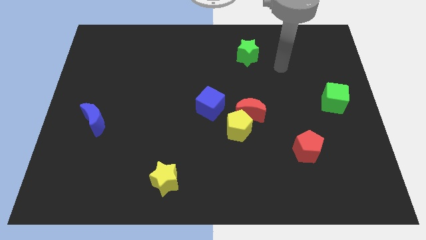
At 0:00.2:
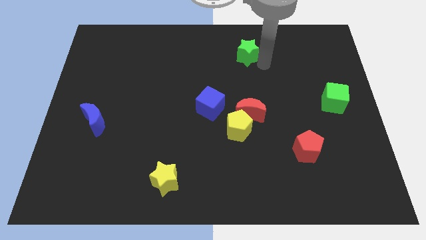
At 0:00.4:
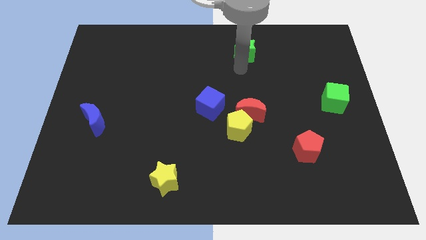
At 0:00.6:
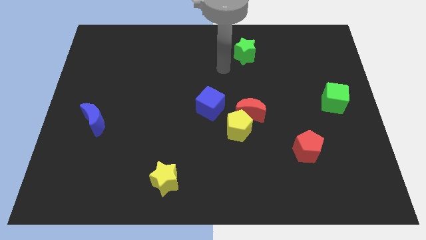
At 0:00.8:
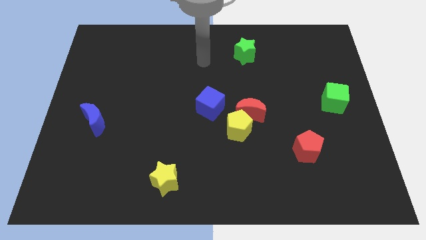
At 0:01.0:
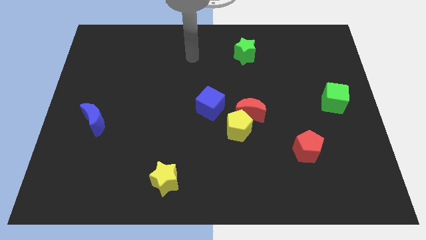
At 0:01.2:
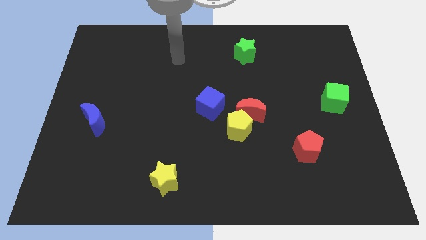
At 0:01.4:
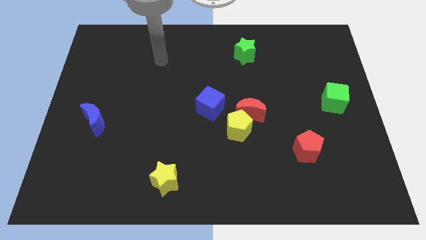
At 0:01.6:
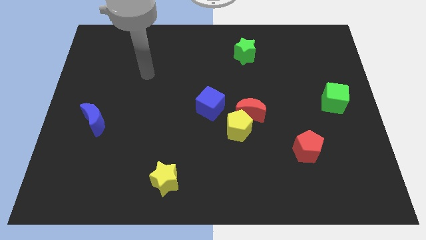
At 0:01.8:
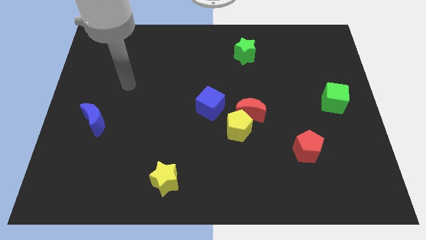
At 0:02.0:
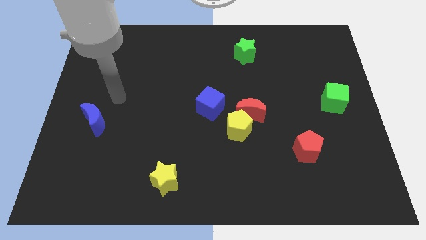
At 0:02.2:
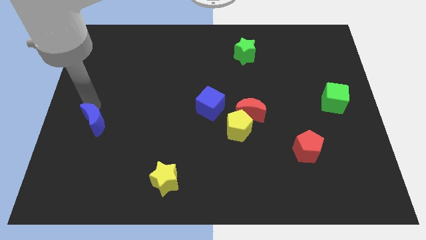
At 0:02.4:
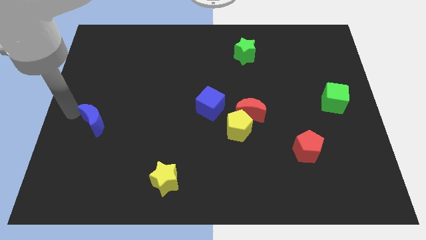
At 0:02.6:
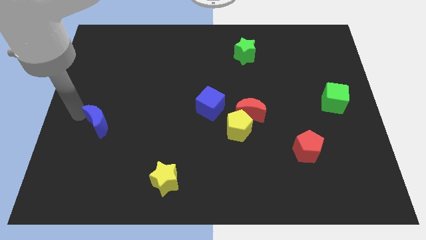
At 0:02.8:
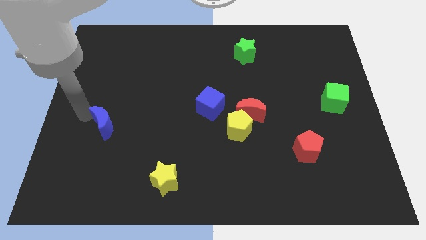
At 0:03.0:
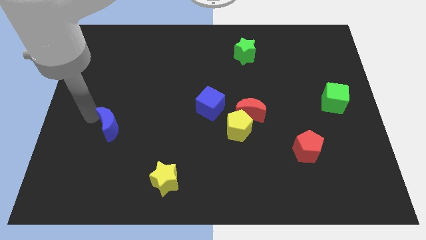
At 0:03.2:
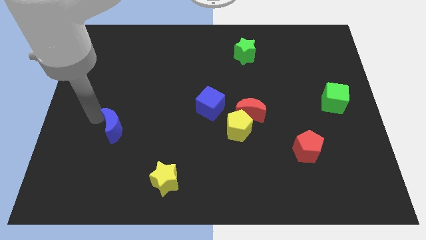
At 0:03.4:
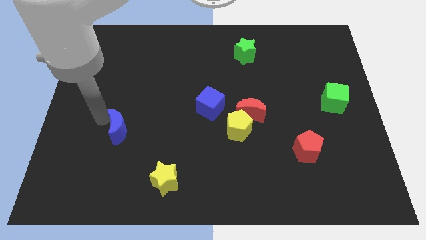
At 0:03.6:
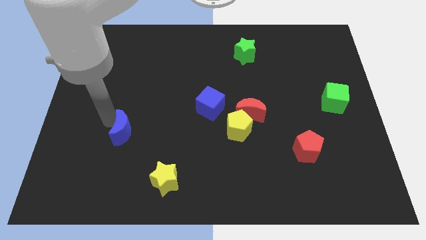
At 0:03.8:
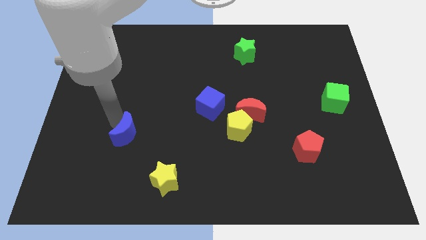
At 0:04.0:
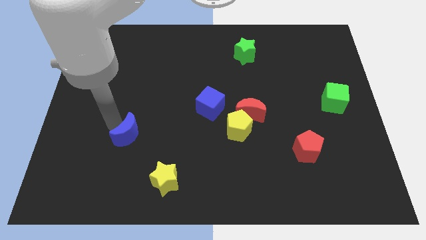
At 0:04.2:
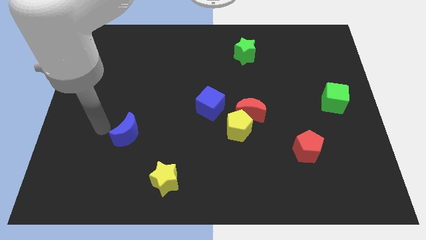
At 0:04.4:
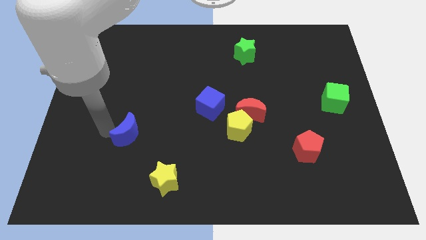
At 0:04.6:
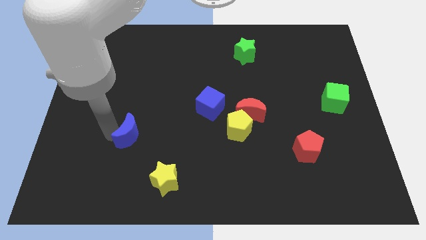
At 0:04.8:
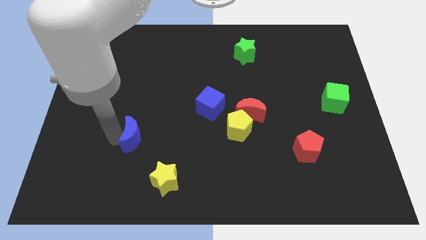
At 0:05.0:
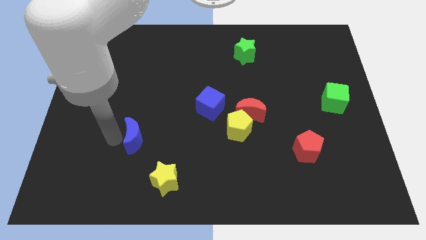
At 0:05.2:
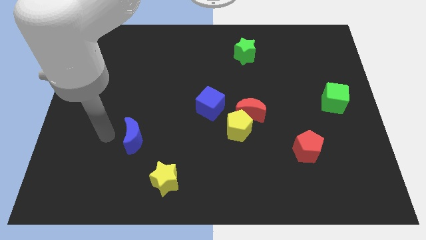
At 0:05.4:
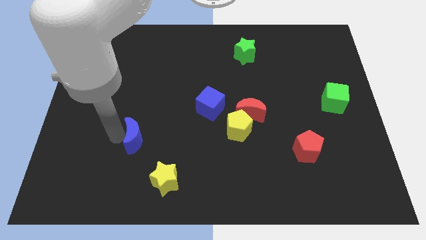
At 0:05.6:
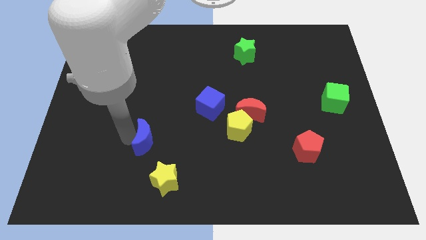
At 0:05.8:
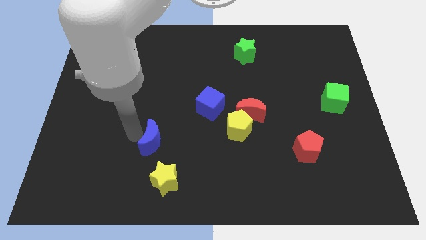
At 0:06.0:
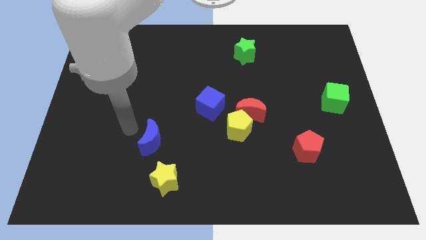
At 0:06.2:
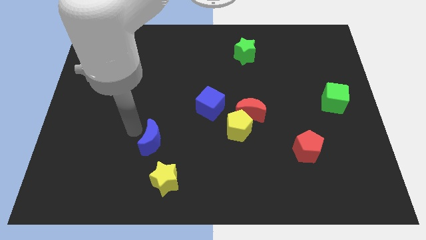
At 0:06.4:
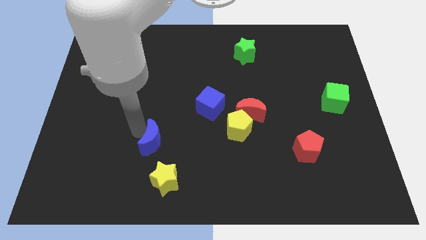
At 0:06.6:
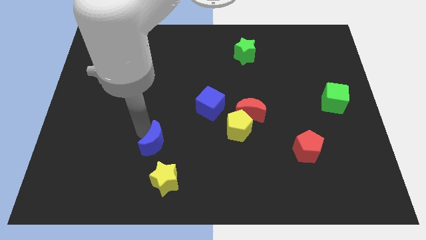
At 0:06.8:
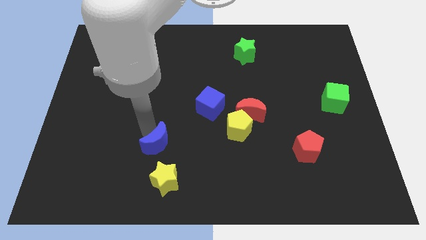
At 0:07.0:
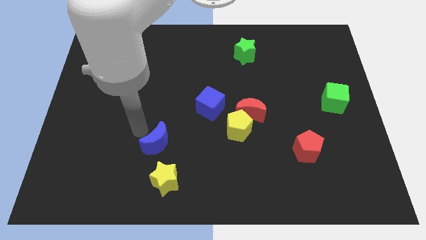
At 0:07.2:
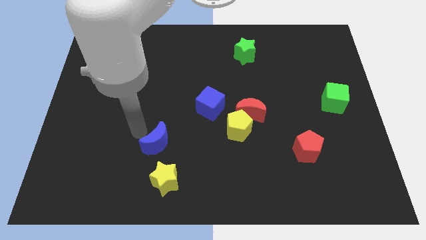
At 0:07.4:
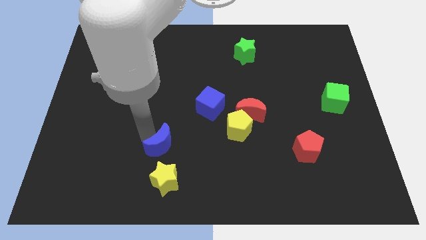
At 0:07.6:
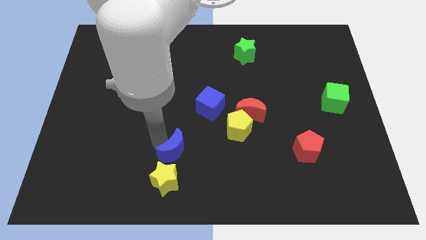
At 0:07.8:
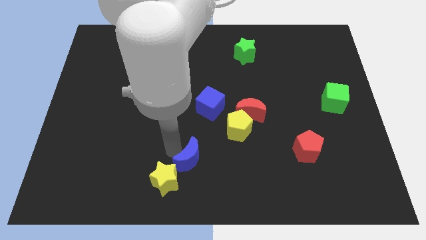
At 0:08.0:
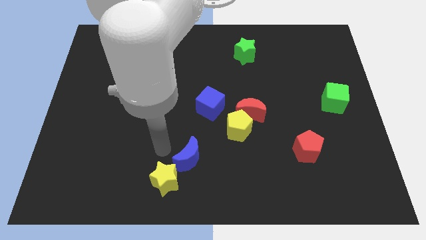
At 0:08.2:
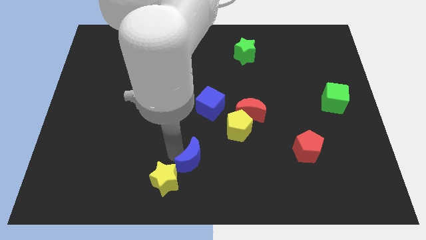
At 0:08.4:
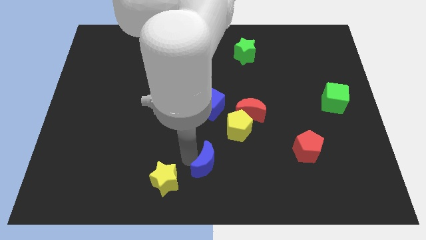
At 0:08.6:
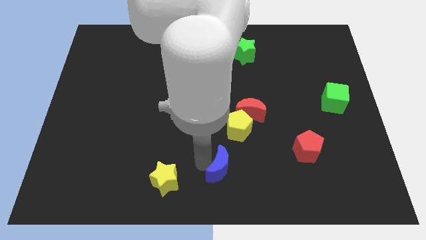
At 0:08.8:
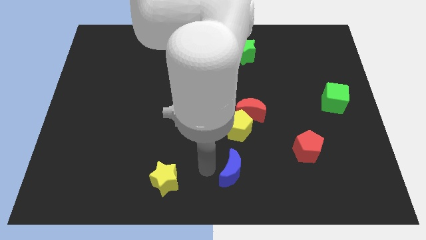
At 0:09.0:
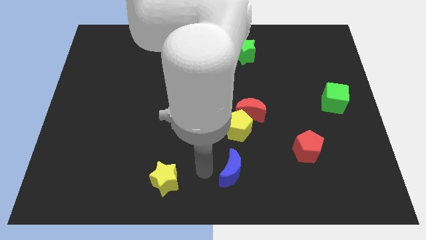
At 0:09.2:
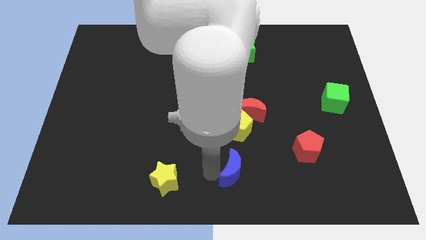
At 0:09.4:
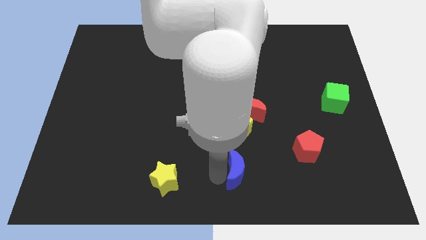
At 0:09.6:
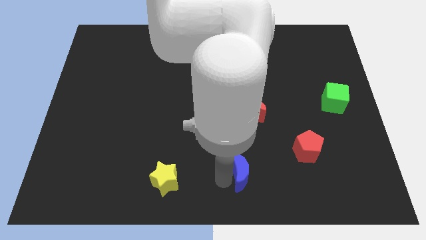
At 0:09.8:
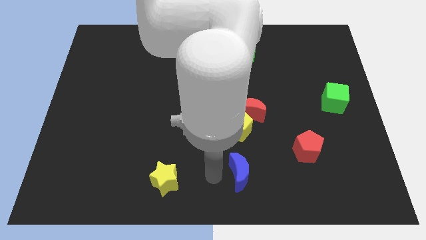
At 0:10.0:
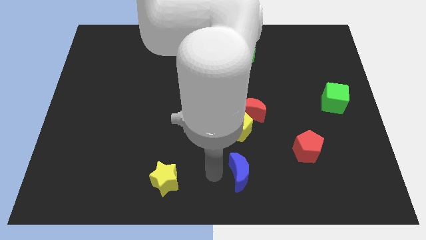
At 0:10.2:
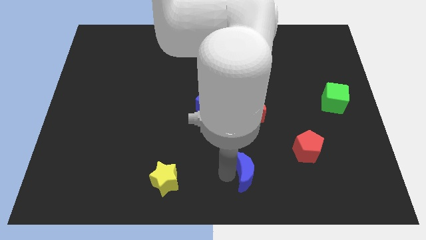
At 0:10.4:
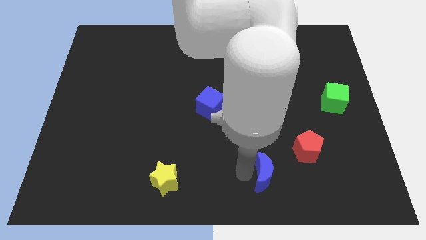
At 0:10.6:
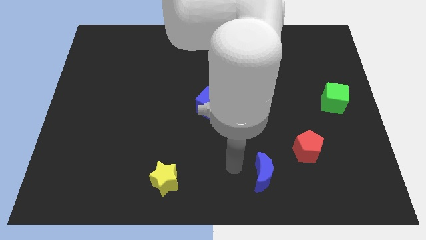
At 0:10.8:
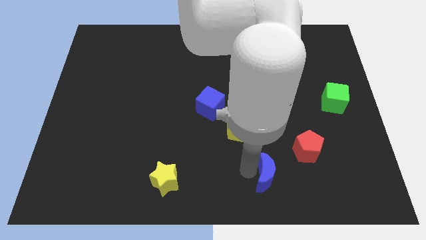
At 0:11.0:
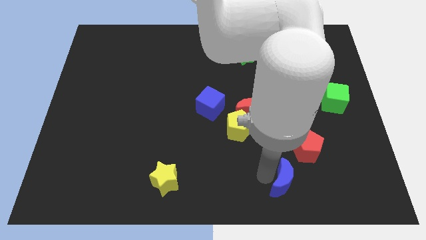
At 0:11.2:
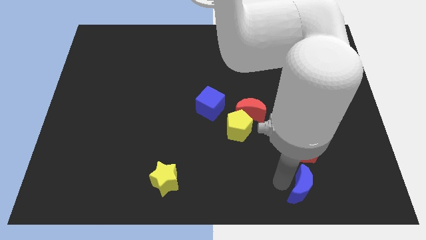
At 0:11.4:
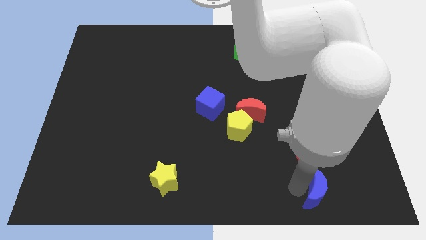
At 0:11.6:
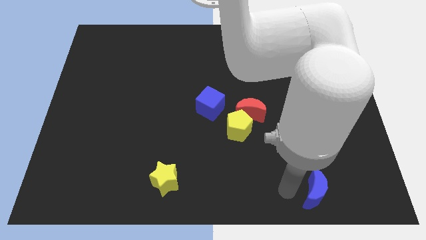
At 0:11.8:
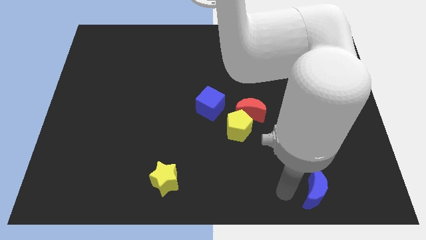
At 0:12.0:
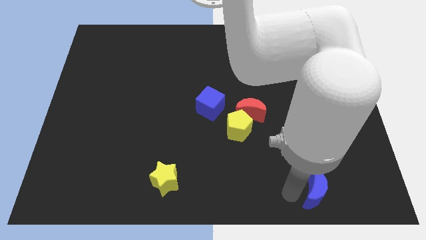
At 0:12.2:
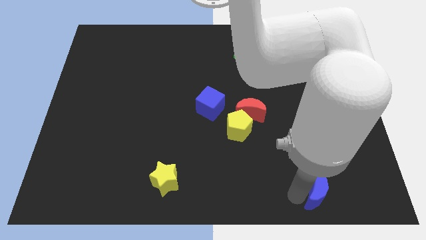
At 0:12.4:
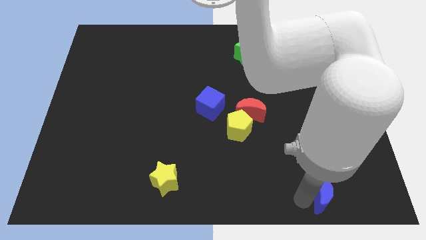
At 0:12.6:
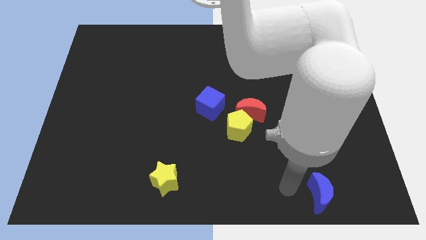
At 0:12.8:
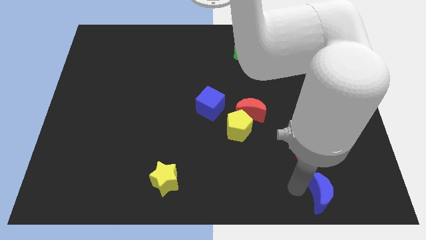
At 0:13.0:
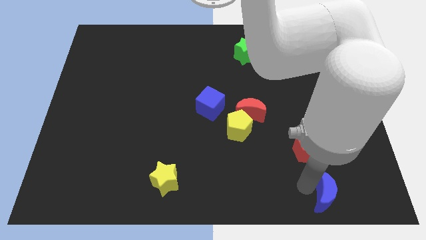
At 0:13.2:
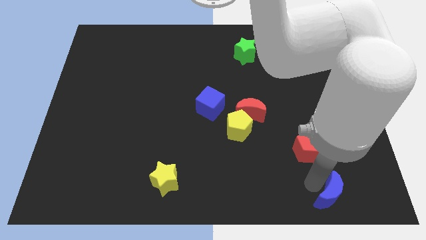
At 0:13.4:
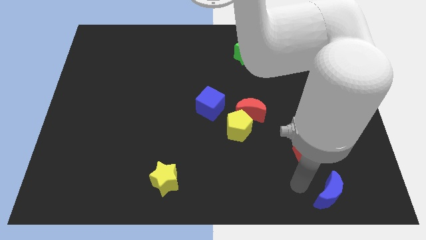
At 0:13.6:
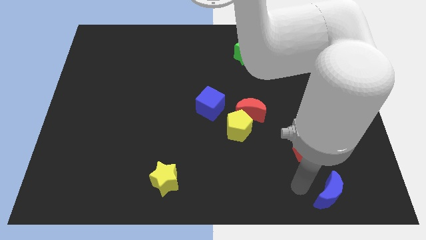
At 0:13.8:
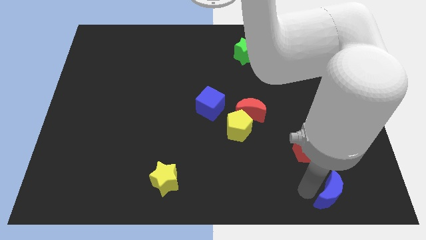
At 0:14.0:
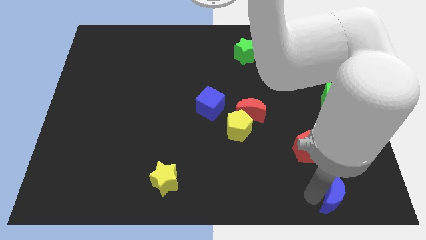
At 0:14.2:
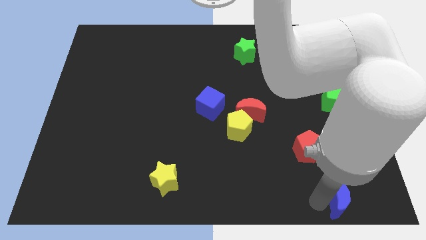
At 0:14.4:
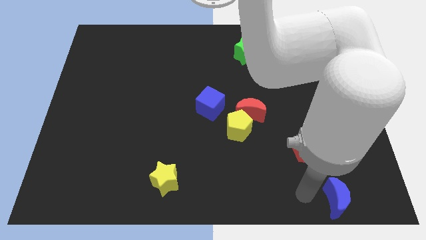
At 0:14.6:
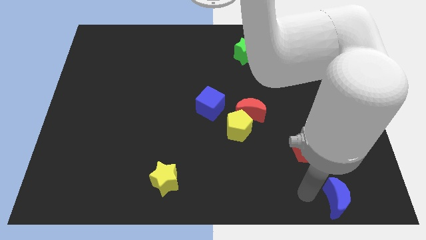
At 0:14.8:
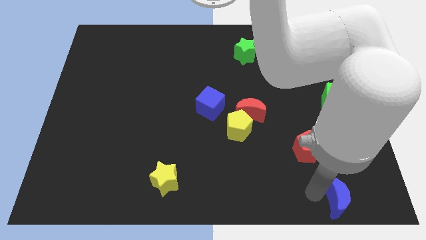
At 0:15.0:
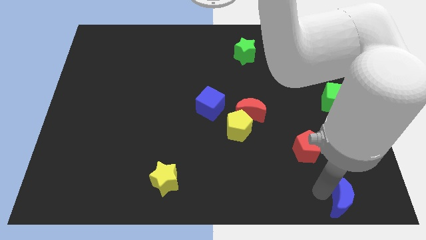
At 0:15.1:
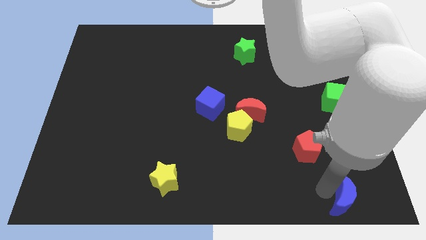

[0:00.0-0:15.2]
push the blue moon to the bottom right corner
